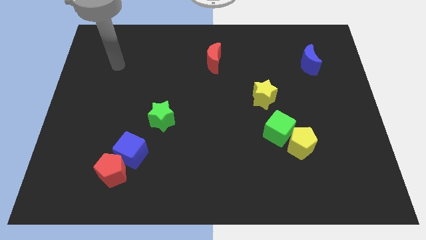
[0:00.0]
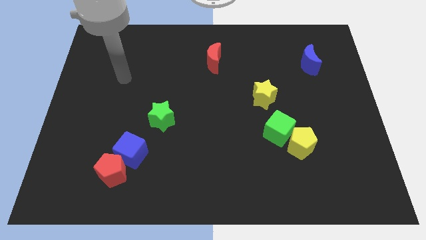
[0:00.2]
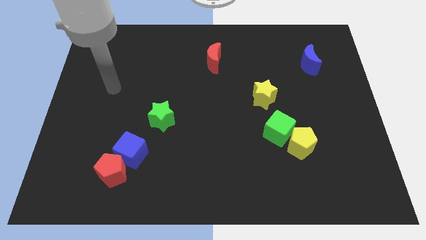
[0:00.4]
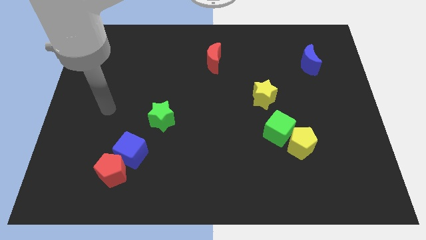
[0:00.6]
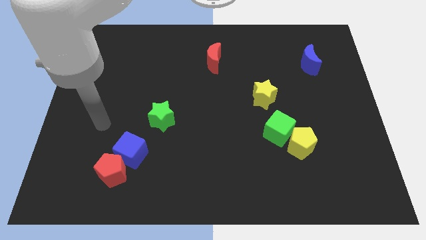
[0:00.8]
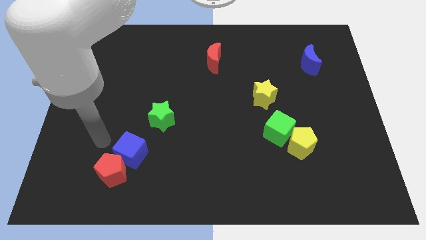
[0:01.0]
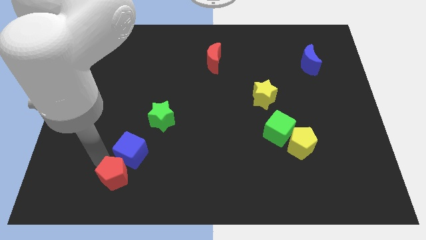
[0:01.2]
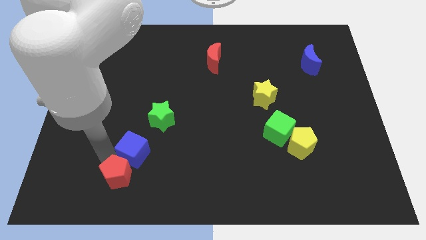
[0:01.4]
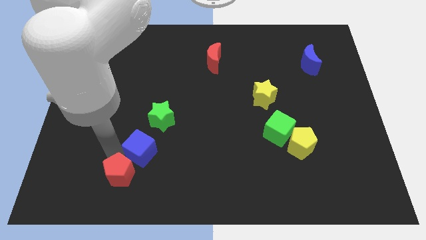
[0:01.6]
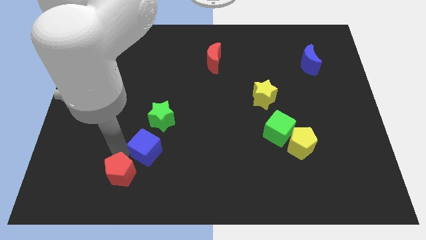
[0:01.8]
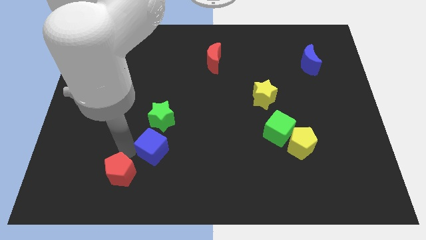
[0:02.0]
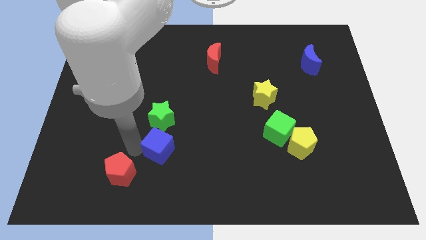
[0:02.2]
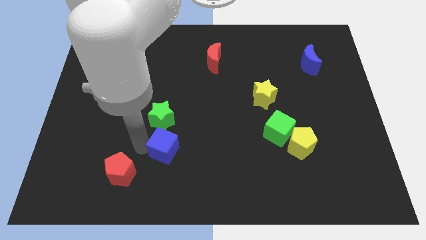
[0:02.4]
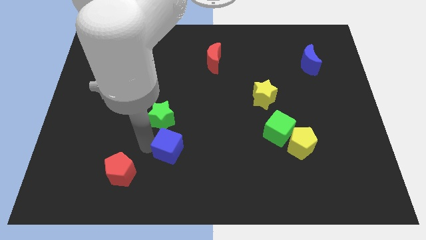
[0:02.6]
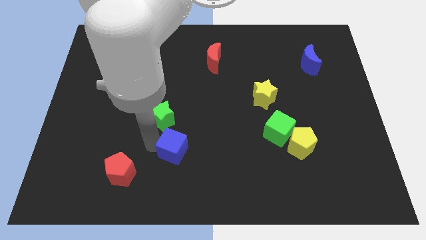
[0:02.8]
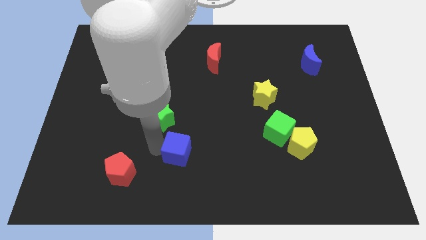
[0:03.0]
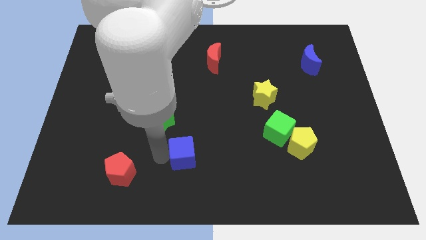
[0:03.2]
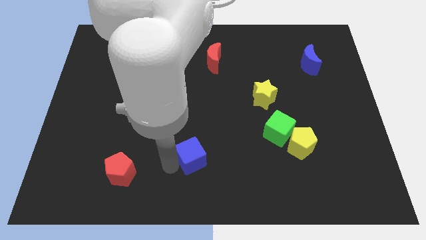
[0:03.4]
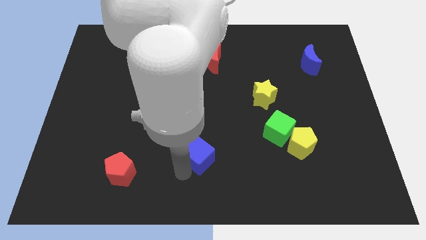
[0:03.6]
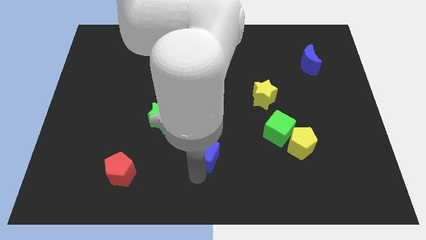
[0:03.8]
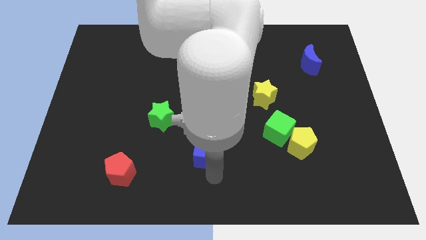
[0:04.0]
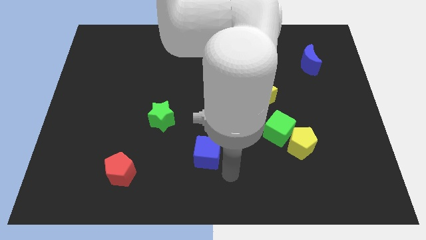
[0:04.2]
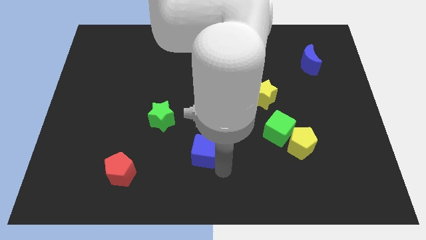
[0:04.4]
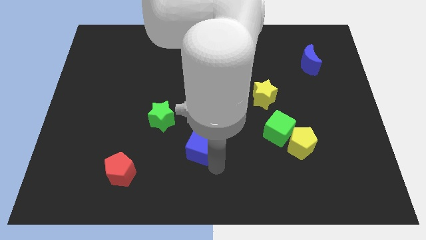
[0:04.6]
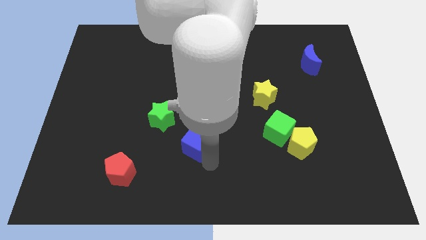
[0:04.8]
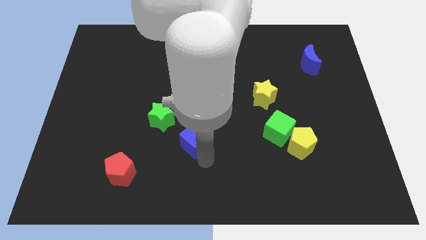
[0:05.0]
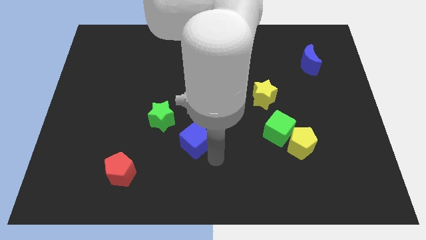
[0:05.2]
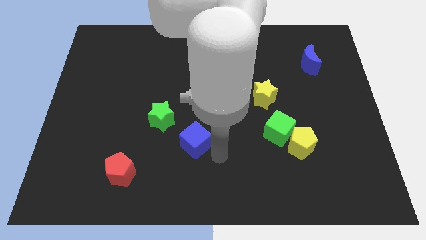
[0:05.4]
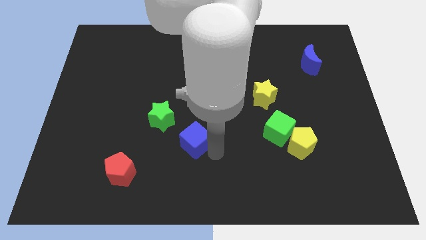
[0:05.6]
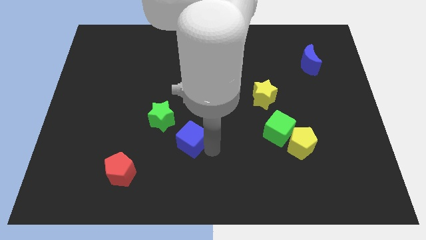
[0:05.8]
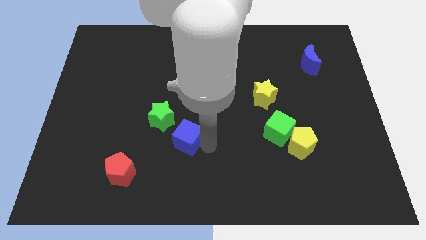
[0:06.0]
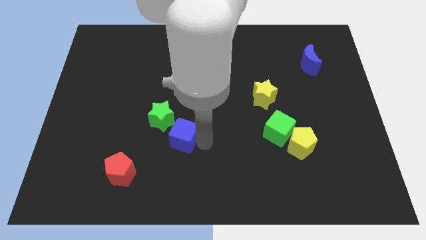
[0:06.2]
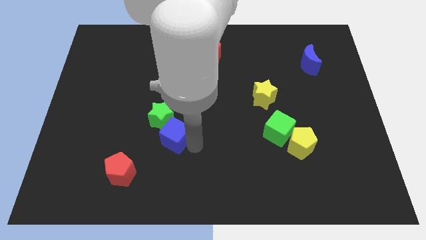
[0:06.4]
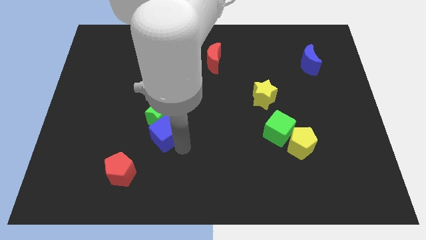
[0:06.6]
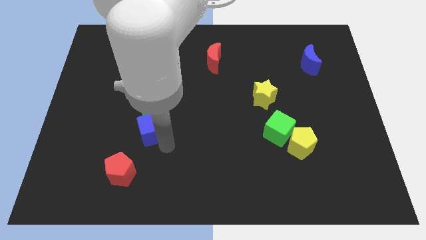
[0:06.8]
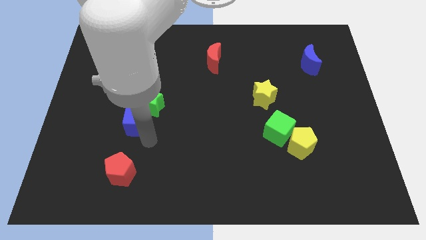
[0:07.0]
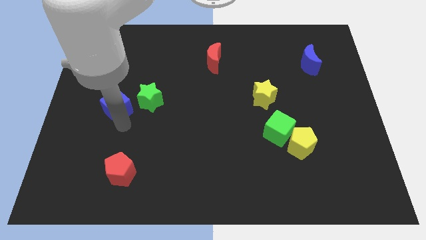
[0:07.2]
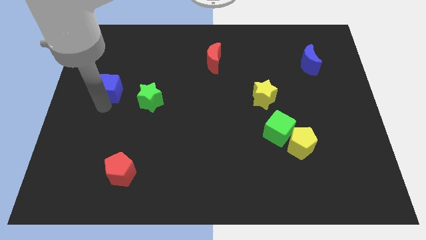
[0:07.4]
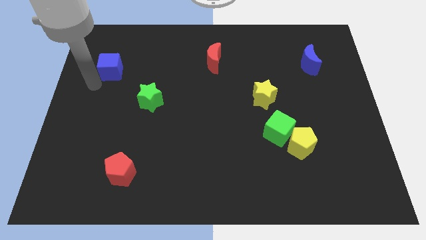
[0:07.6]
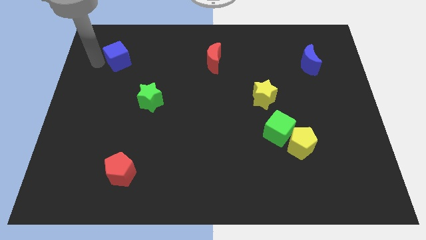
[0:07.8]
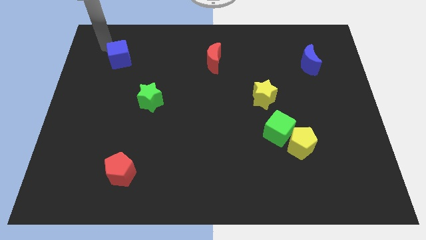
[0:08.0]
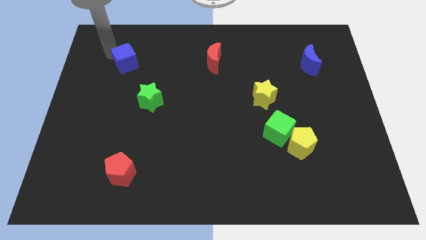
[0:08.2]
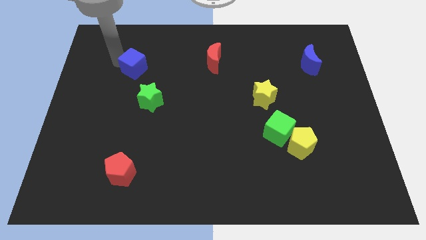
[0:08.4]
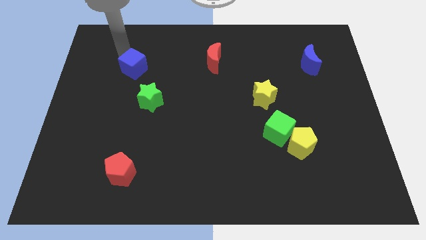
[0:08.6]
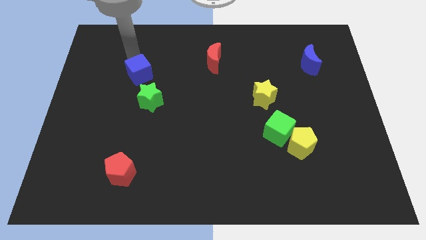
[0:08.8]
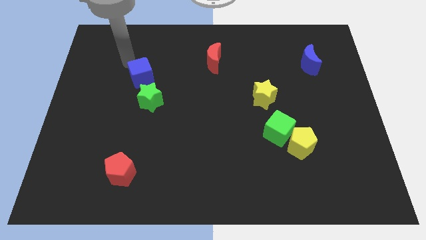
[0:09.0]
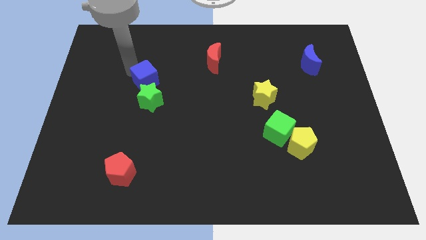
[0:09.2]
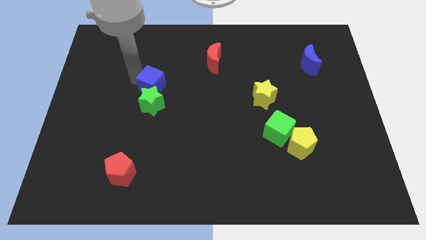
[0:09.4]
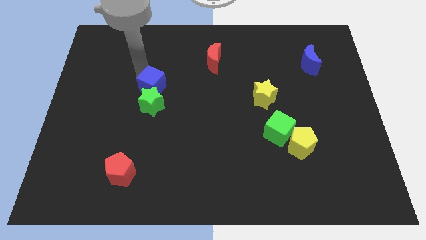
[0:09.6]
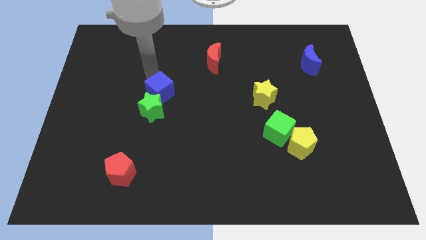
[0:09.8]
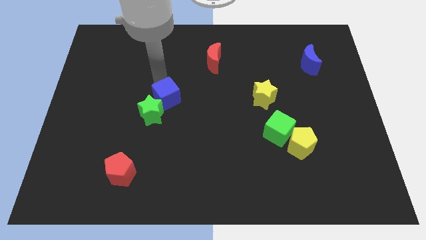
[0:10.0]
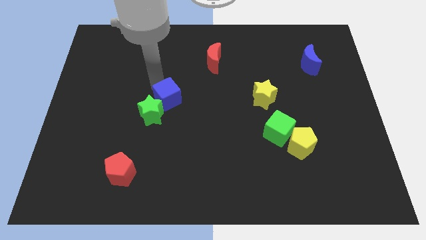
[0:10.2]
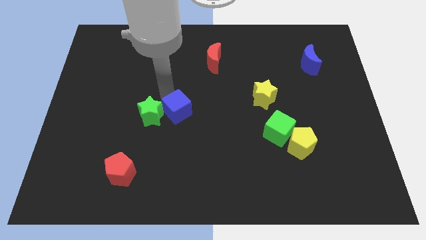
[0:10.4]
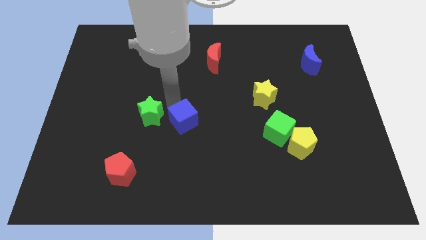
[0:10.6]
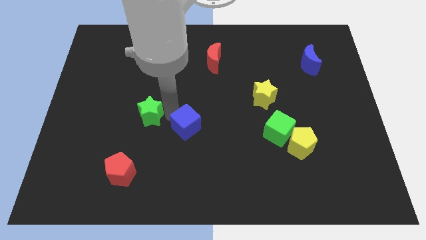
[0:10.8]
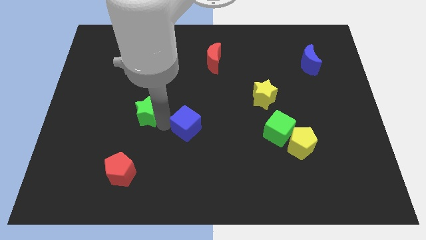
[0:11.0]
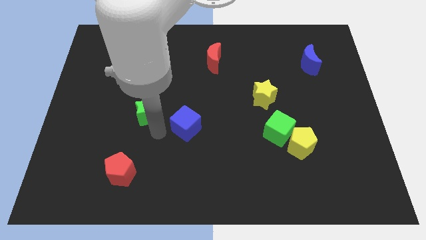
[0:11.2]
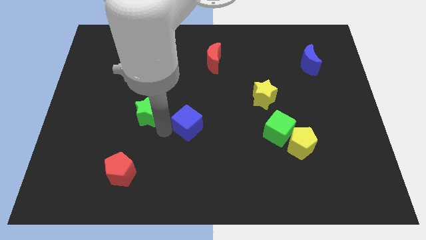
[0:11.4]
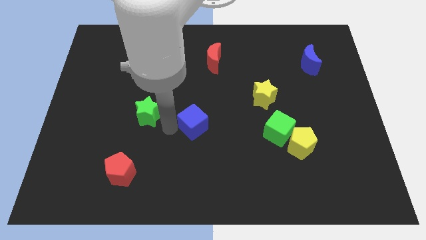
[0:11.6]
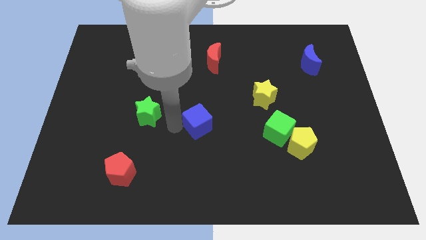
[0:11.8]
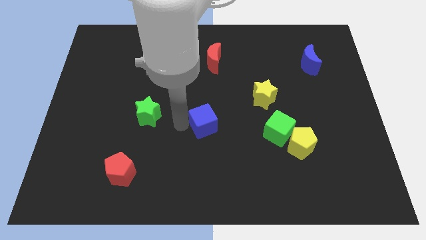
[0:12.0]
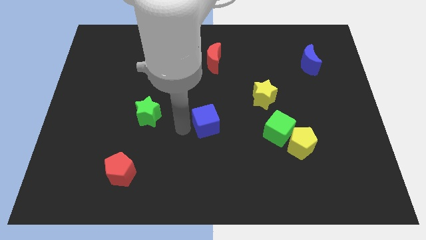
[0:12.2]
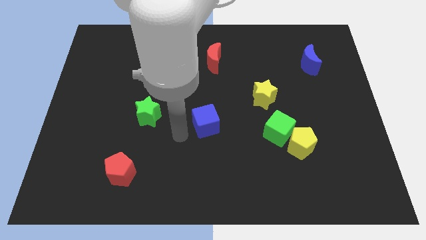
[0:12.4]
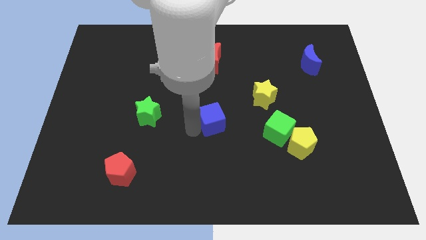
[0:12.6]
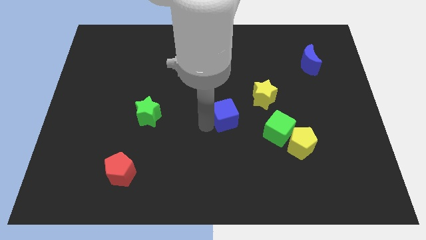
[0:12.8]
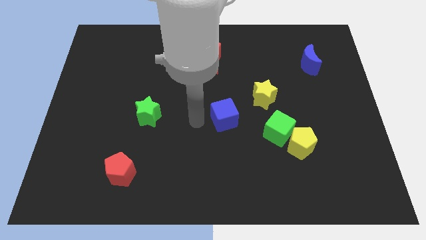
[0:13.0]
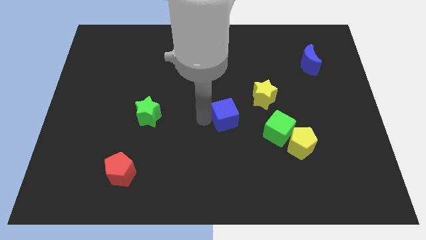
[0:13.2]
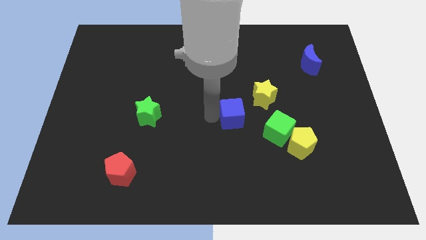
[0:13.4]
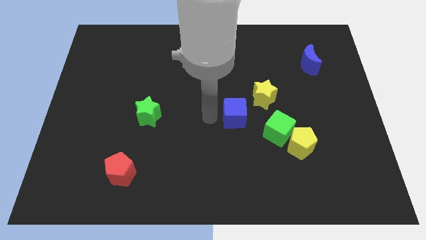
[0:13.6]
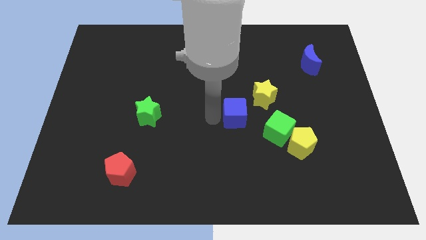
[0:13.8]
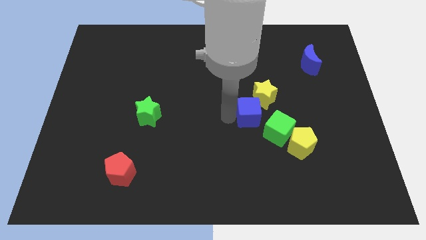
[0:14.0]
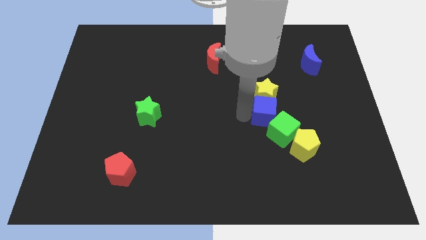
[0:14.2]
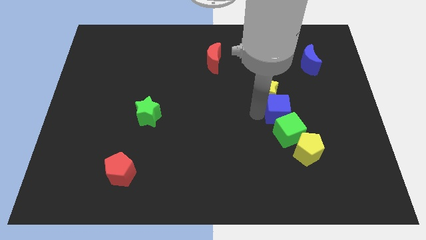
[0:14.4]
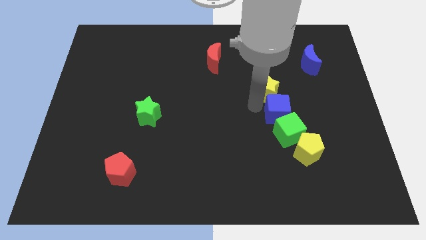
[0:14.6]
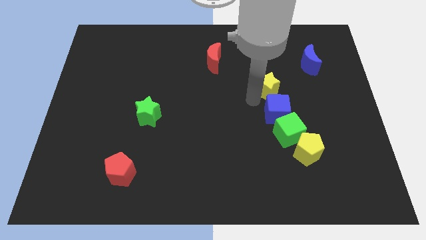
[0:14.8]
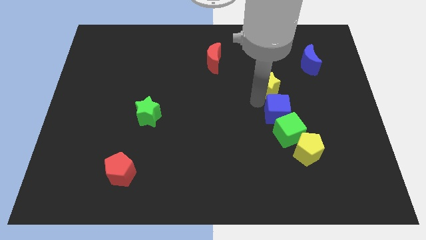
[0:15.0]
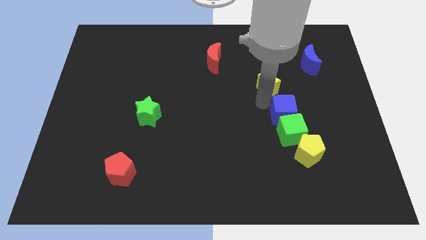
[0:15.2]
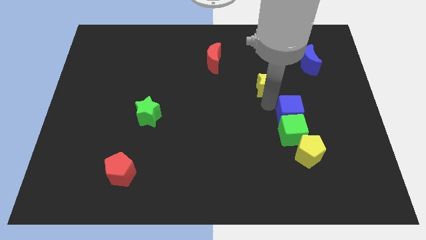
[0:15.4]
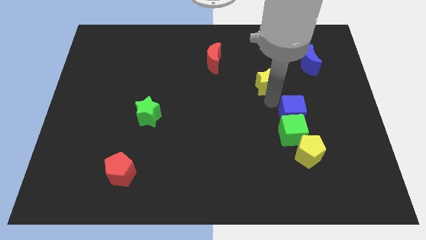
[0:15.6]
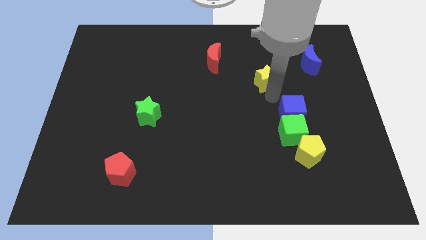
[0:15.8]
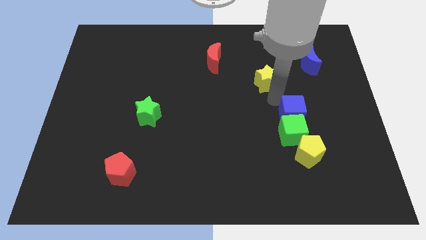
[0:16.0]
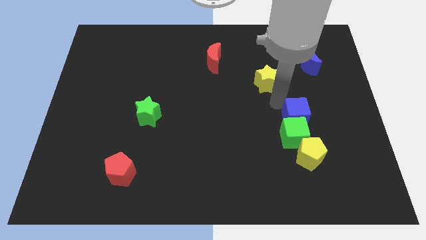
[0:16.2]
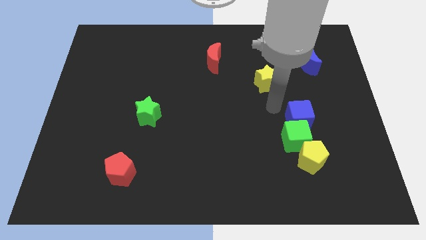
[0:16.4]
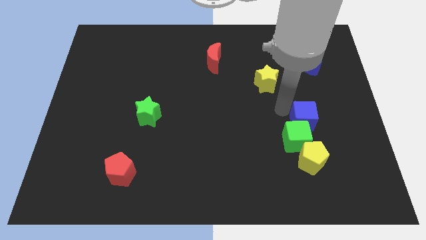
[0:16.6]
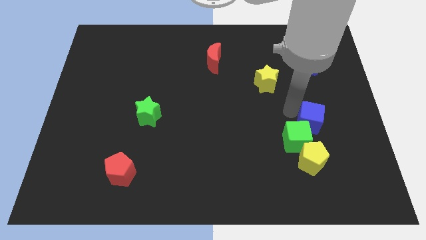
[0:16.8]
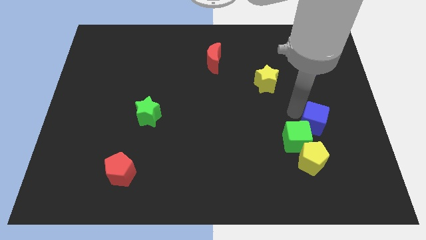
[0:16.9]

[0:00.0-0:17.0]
move the blue cube to the right of the green cube
